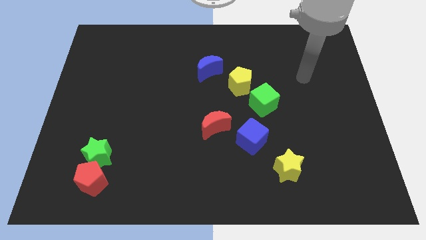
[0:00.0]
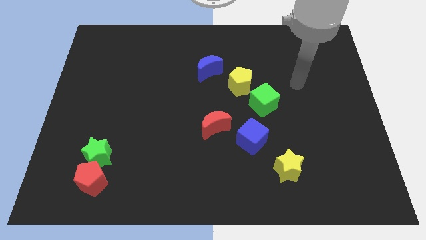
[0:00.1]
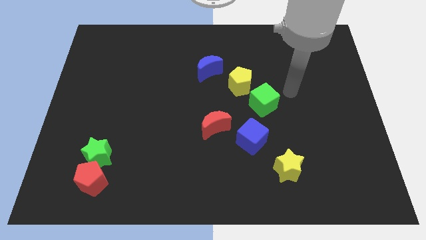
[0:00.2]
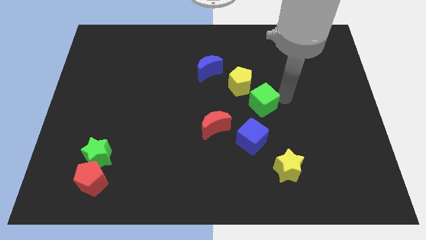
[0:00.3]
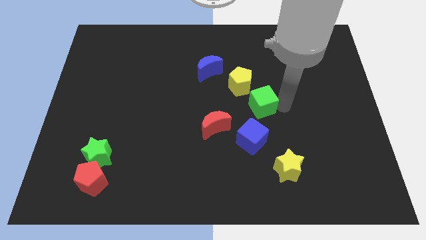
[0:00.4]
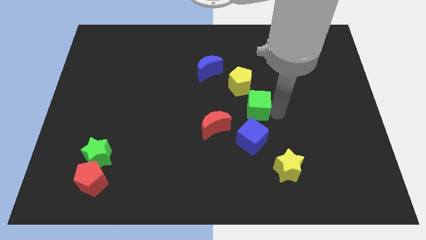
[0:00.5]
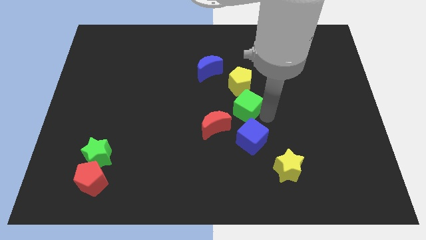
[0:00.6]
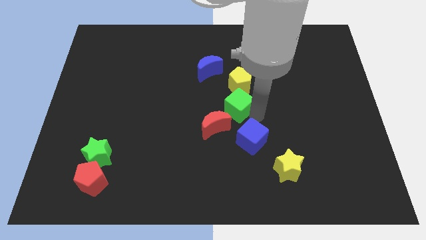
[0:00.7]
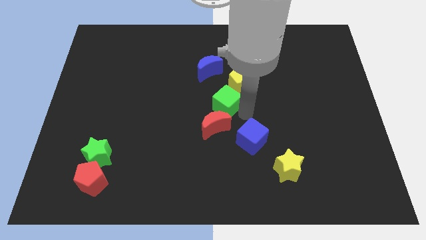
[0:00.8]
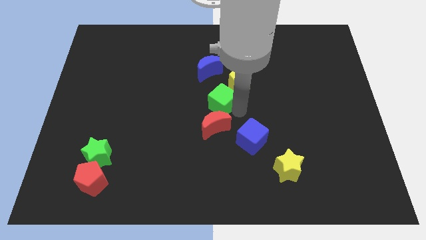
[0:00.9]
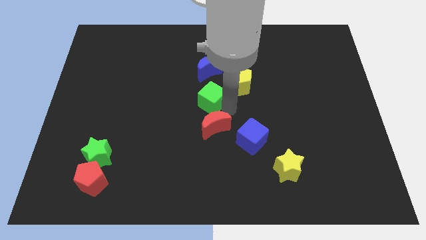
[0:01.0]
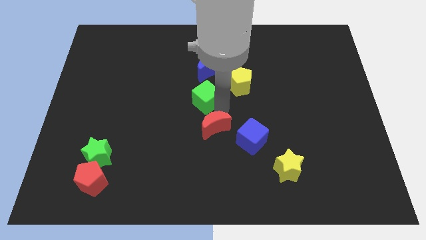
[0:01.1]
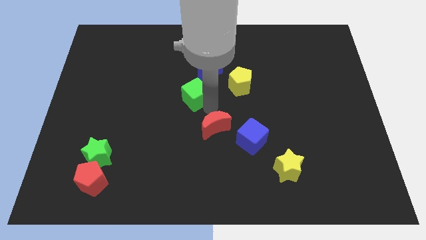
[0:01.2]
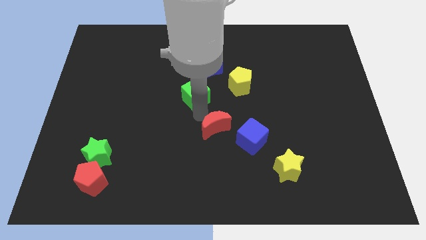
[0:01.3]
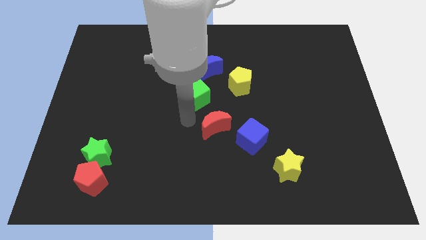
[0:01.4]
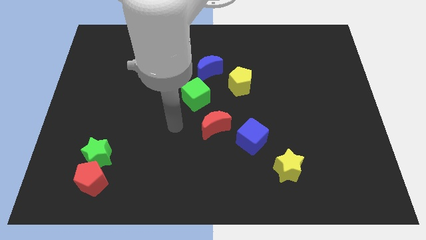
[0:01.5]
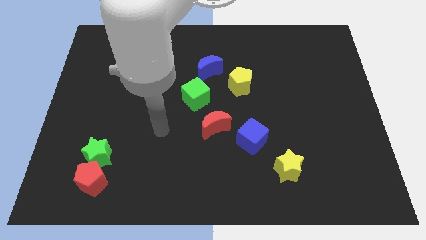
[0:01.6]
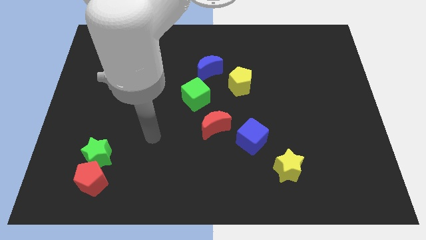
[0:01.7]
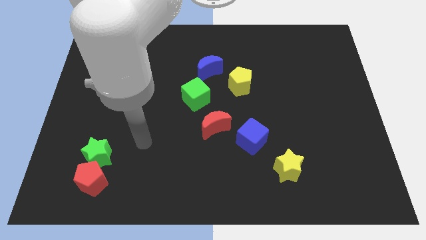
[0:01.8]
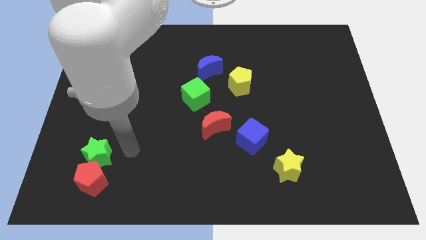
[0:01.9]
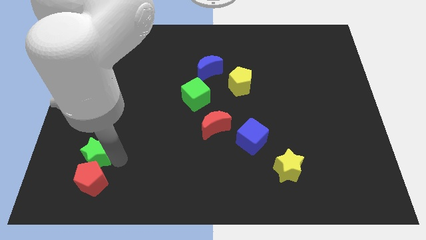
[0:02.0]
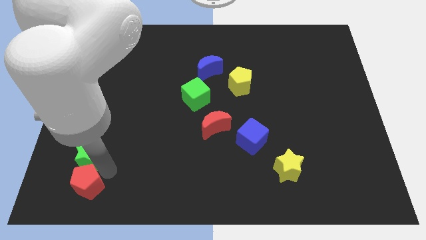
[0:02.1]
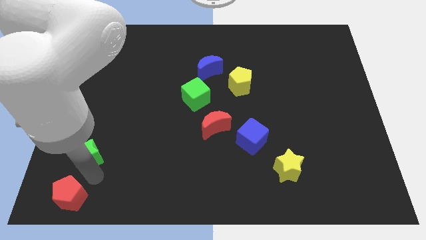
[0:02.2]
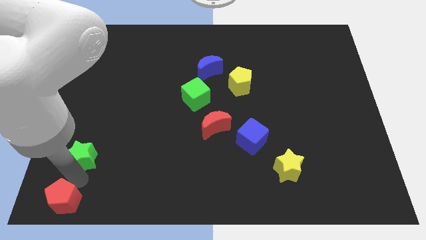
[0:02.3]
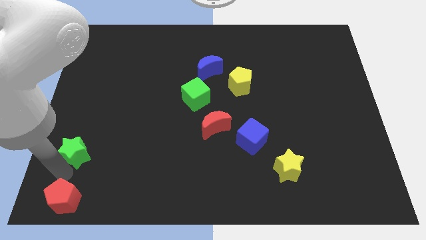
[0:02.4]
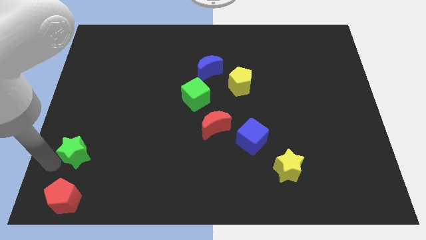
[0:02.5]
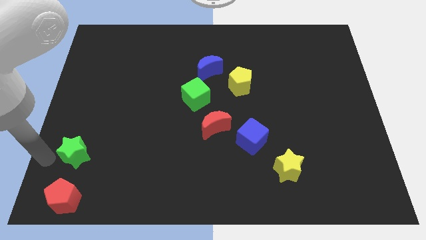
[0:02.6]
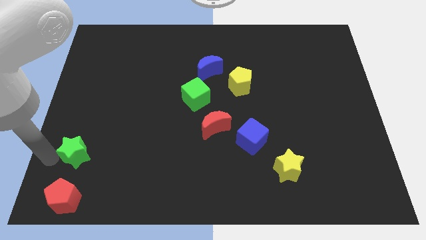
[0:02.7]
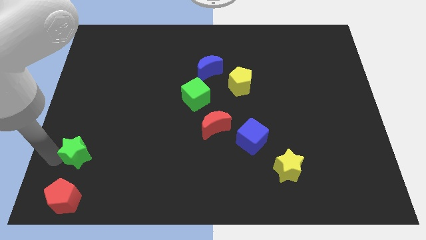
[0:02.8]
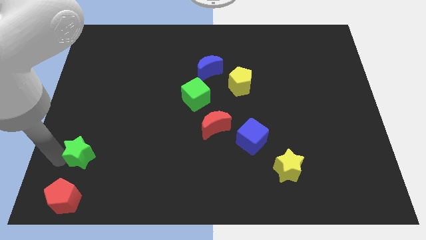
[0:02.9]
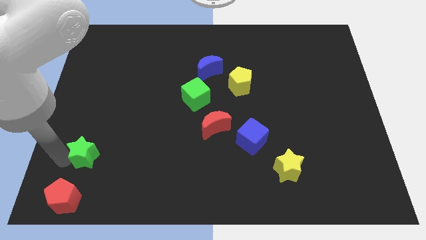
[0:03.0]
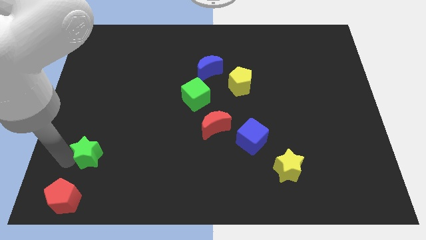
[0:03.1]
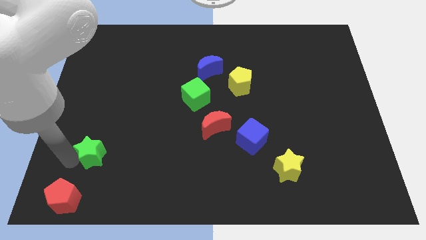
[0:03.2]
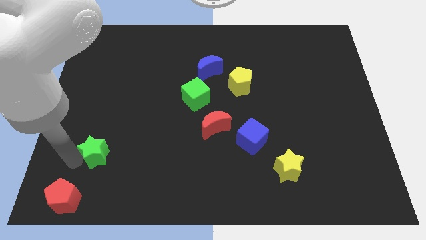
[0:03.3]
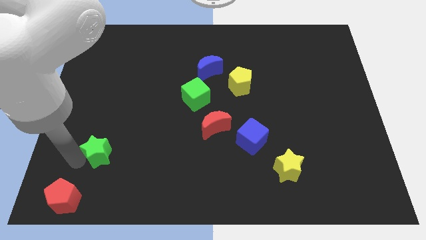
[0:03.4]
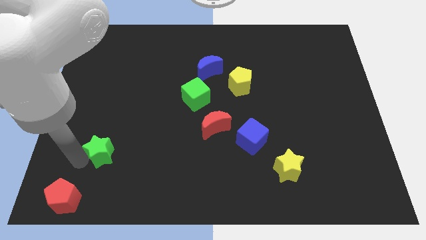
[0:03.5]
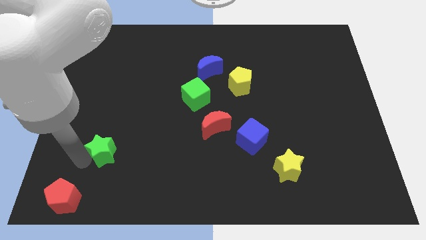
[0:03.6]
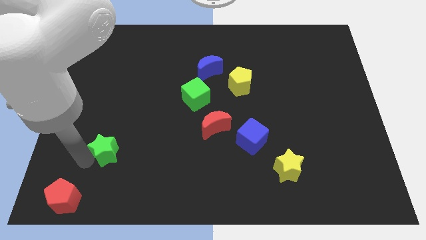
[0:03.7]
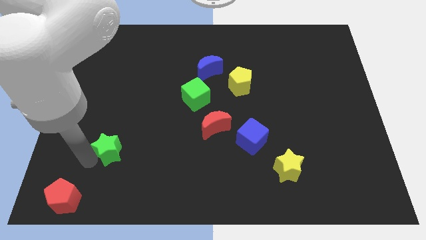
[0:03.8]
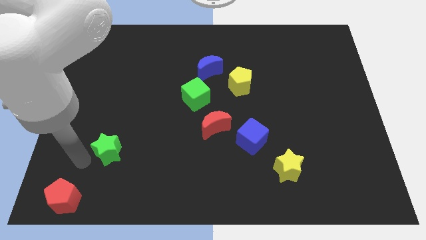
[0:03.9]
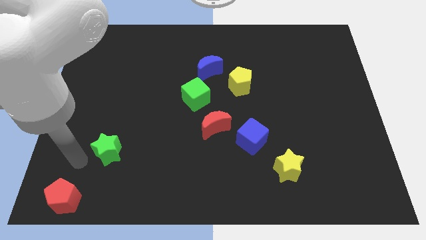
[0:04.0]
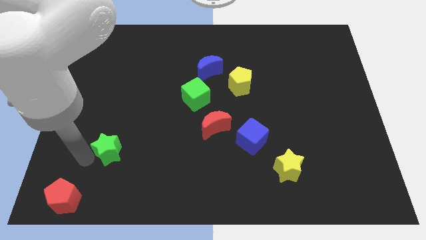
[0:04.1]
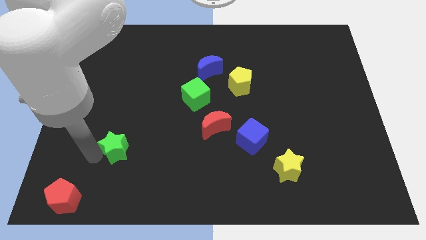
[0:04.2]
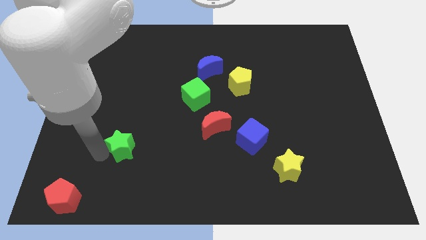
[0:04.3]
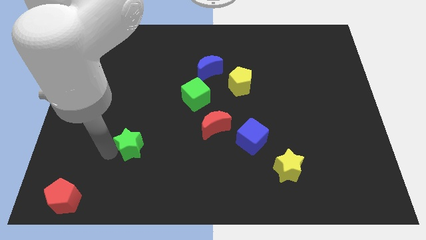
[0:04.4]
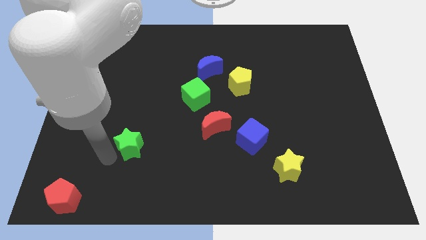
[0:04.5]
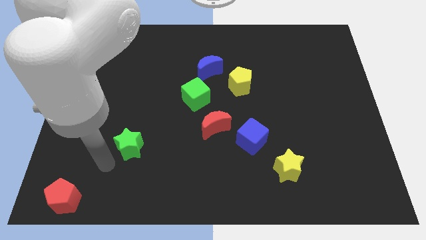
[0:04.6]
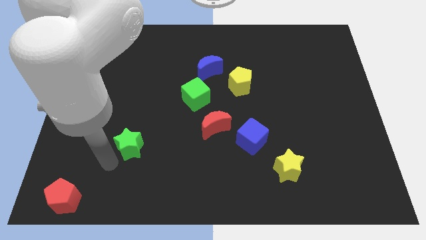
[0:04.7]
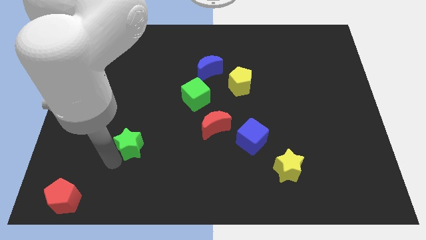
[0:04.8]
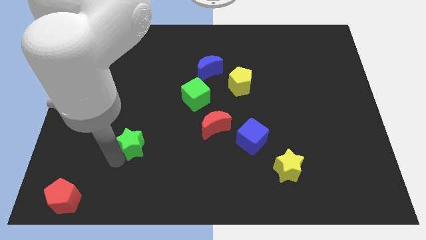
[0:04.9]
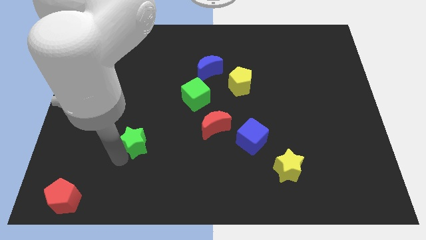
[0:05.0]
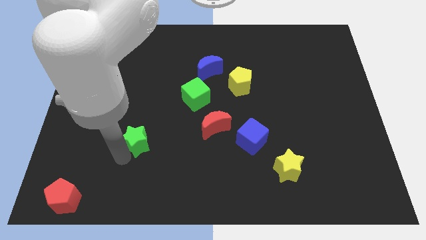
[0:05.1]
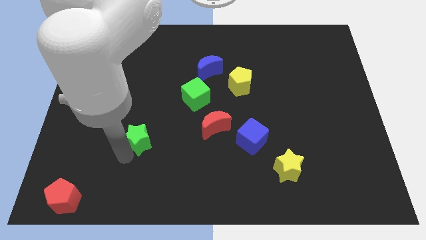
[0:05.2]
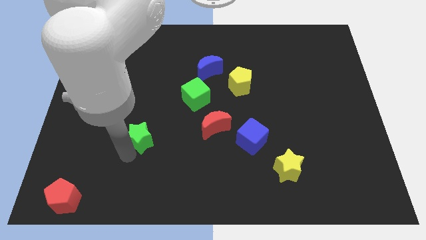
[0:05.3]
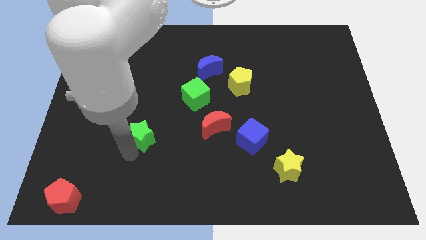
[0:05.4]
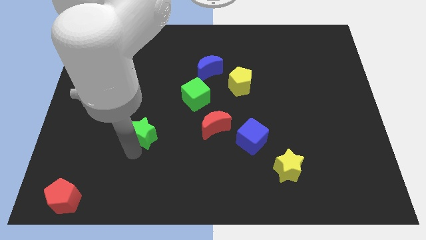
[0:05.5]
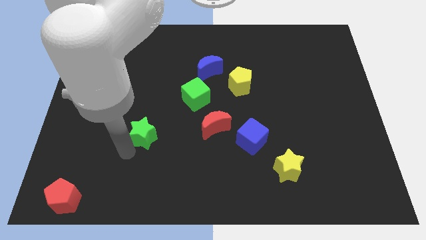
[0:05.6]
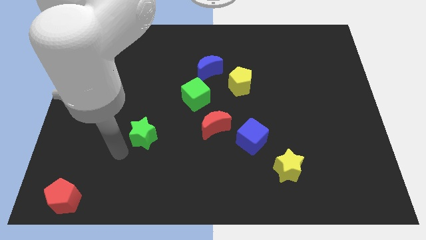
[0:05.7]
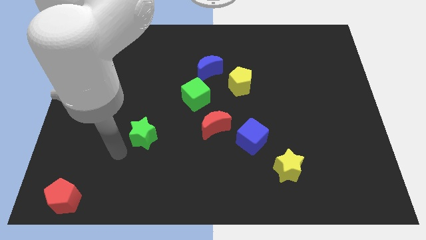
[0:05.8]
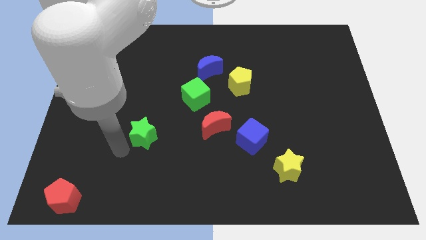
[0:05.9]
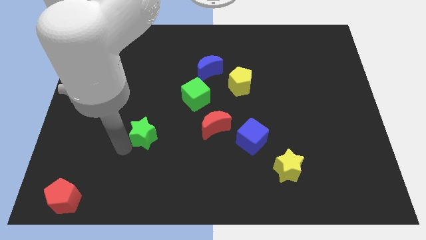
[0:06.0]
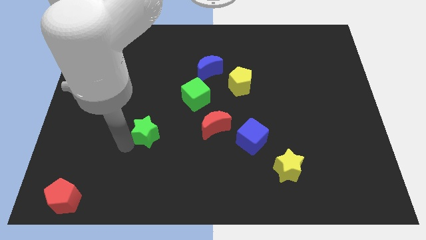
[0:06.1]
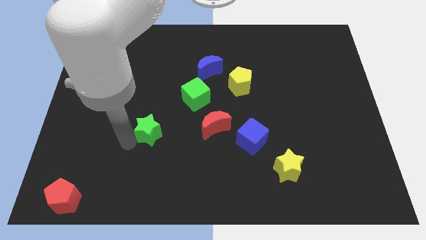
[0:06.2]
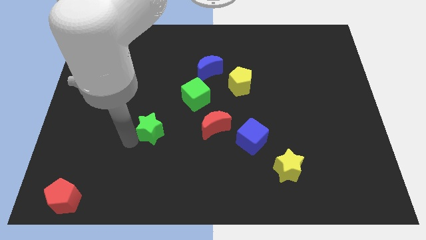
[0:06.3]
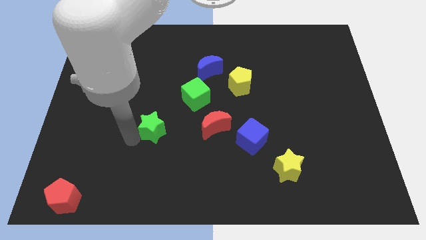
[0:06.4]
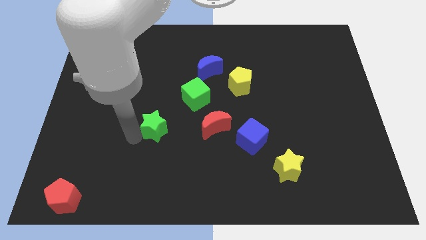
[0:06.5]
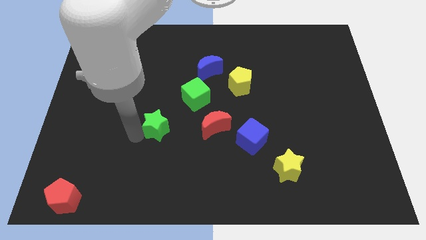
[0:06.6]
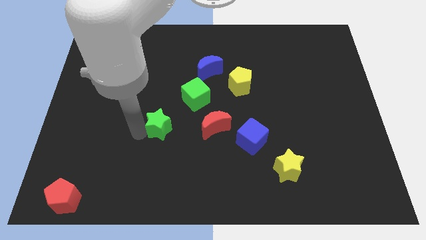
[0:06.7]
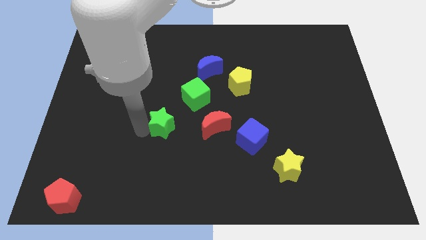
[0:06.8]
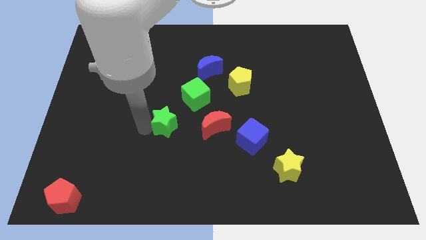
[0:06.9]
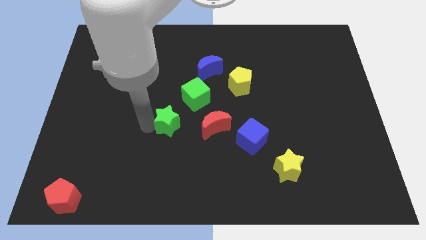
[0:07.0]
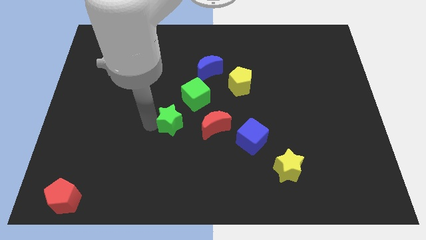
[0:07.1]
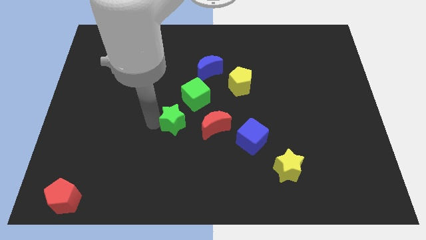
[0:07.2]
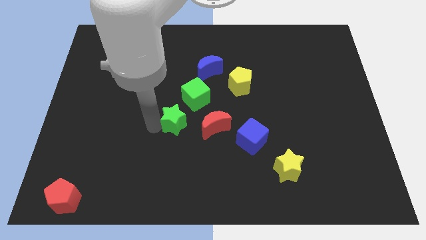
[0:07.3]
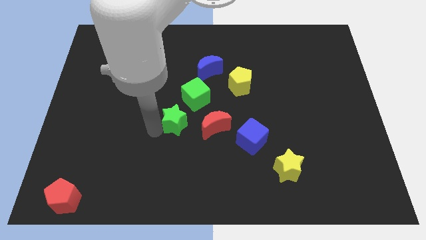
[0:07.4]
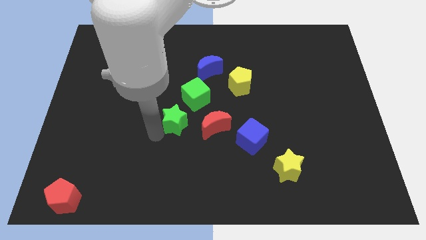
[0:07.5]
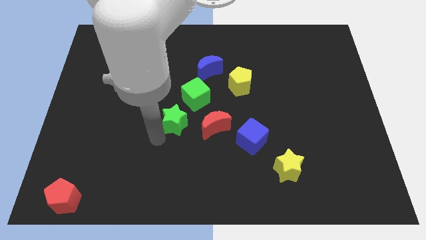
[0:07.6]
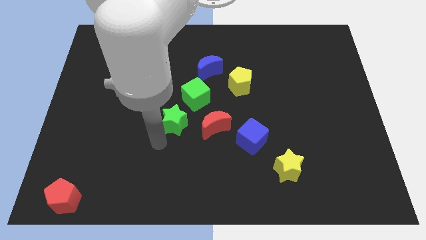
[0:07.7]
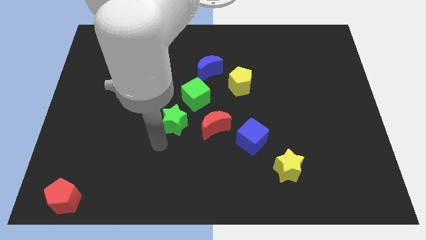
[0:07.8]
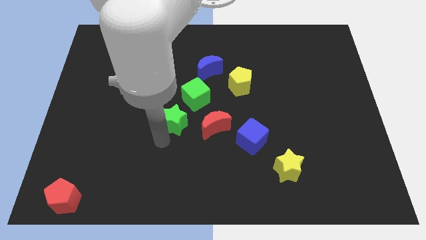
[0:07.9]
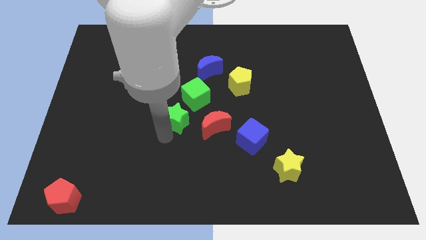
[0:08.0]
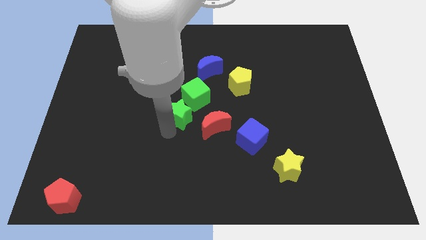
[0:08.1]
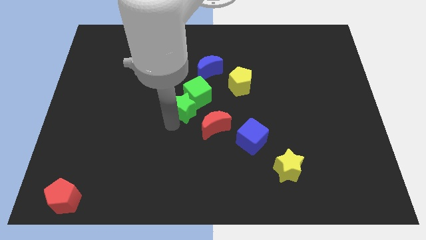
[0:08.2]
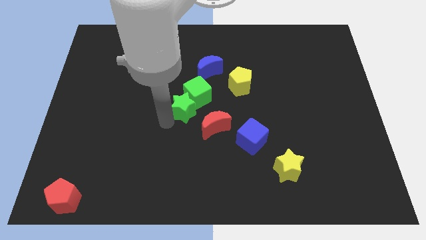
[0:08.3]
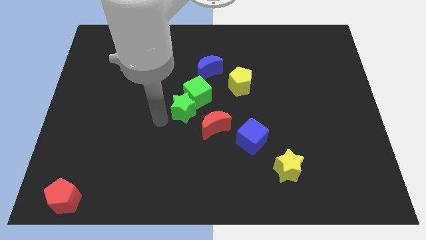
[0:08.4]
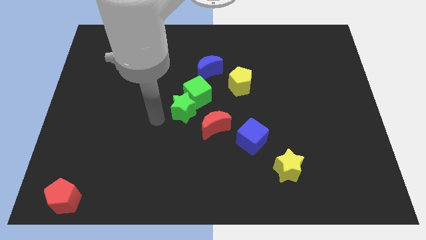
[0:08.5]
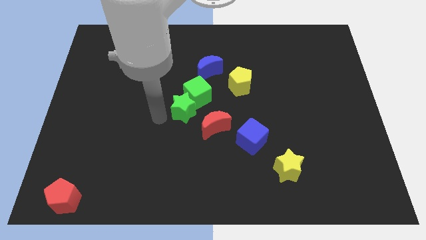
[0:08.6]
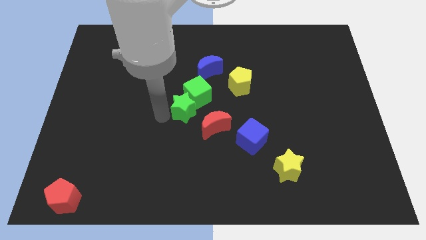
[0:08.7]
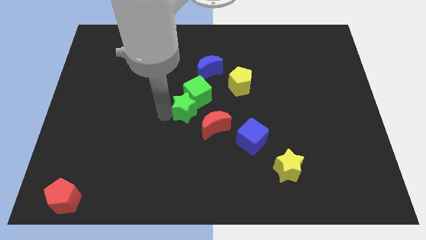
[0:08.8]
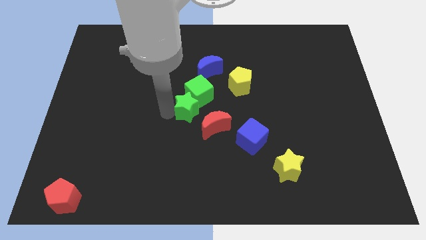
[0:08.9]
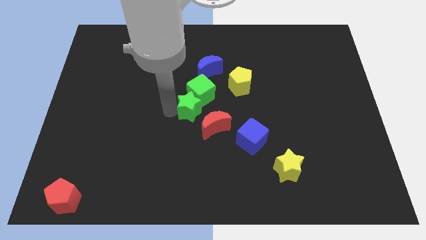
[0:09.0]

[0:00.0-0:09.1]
push the green star to the bottom side of the blue moon
